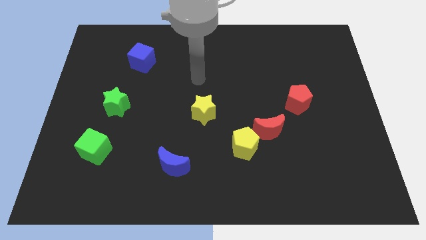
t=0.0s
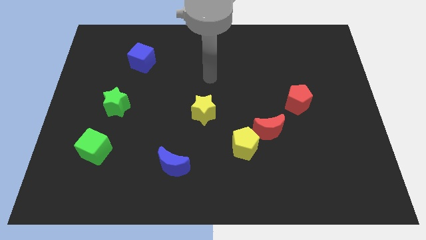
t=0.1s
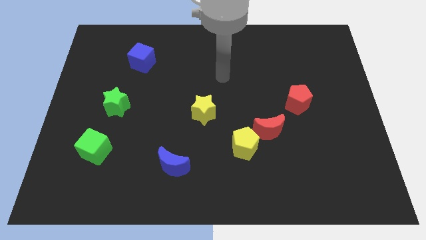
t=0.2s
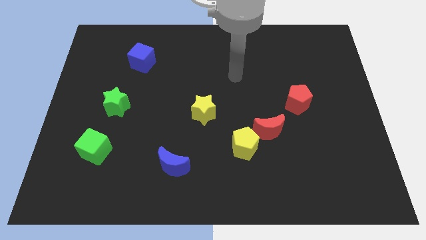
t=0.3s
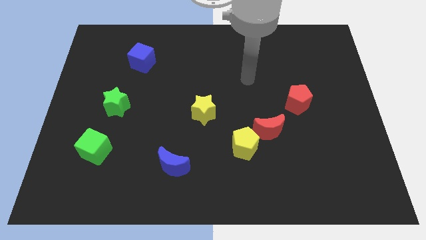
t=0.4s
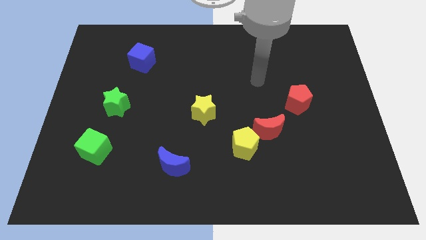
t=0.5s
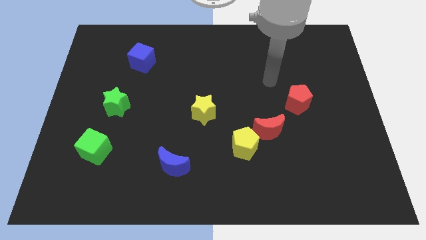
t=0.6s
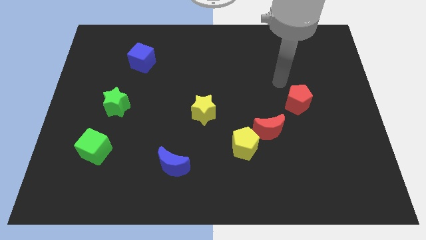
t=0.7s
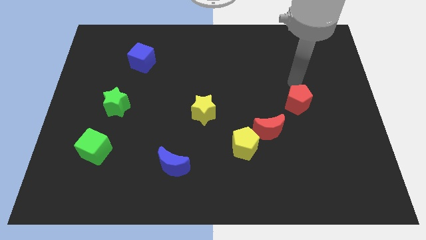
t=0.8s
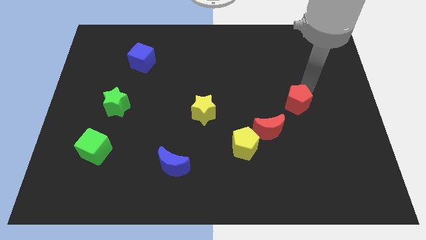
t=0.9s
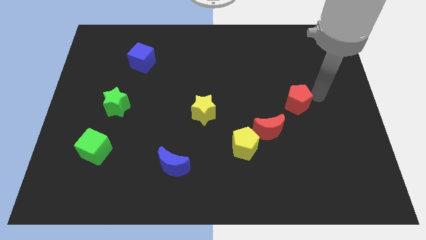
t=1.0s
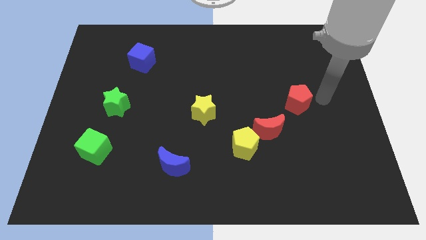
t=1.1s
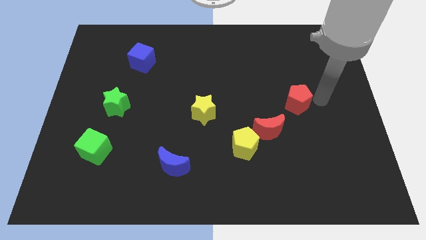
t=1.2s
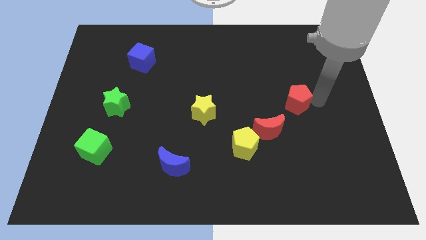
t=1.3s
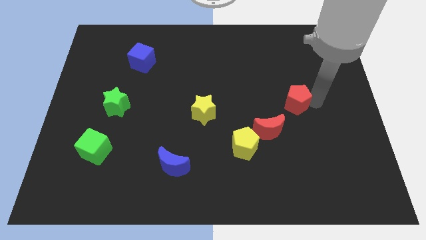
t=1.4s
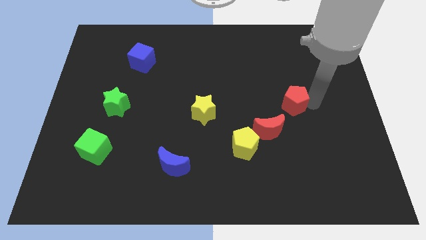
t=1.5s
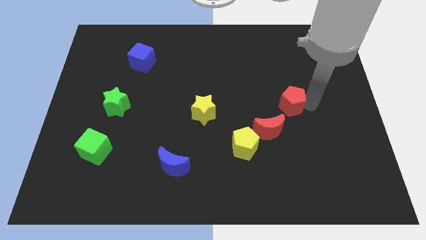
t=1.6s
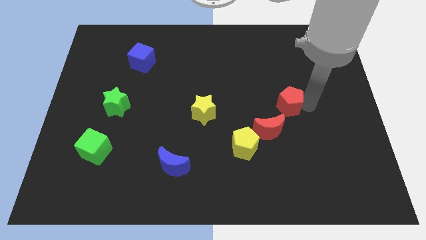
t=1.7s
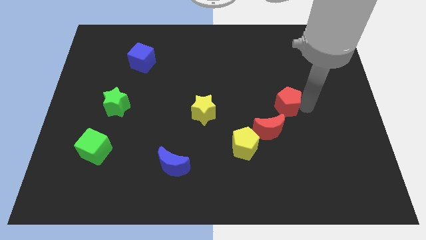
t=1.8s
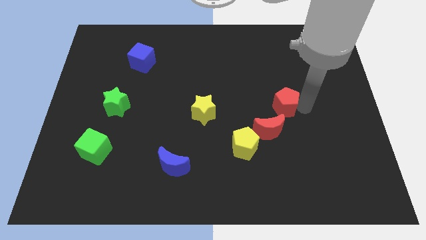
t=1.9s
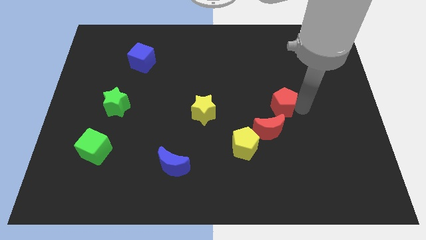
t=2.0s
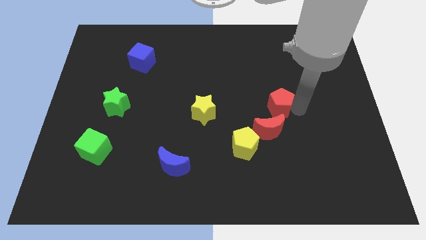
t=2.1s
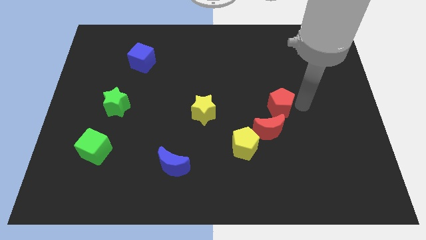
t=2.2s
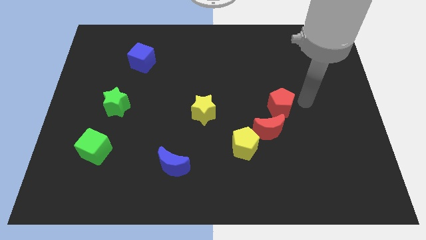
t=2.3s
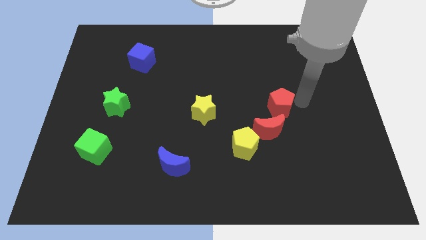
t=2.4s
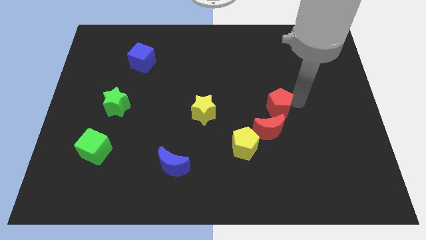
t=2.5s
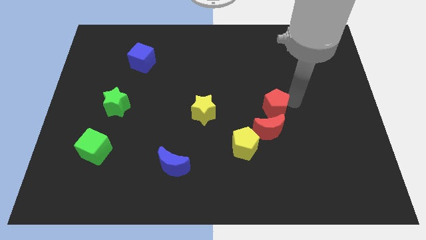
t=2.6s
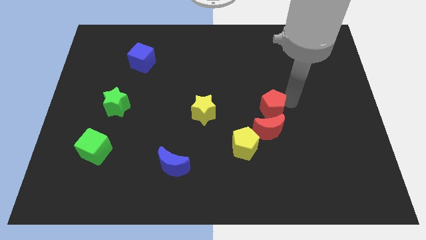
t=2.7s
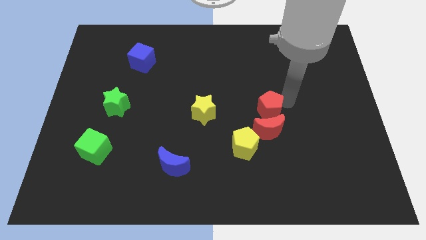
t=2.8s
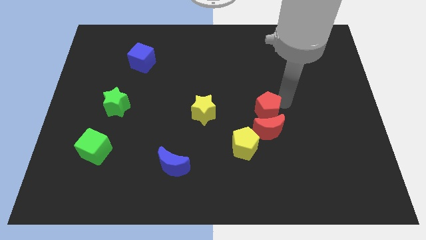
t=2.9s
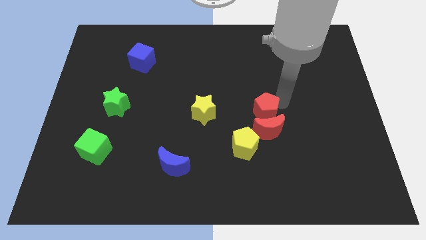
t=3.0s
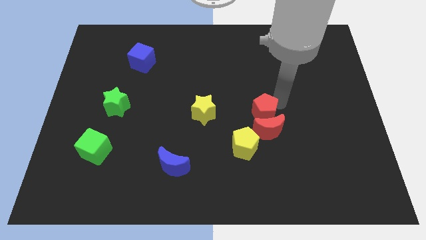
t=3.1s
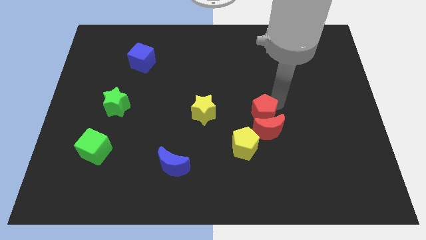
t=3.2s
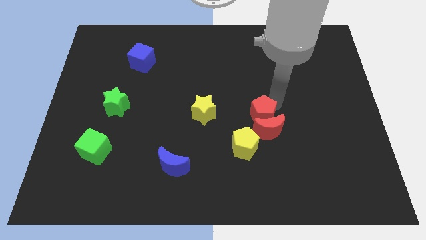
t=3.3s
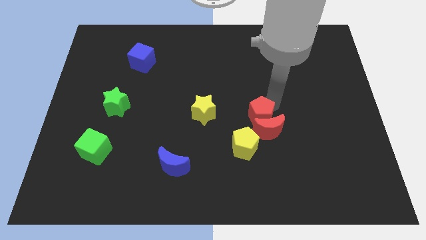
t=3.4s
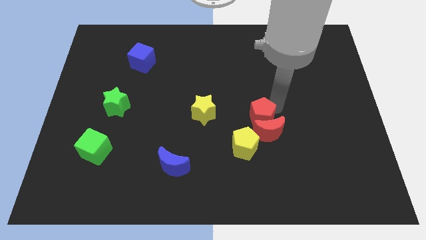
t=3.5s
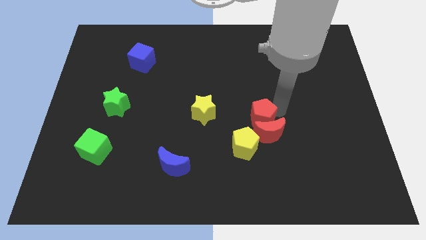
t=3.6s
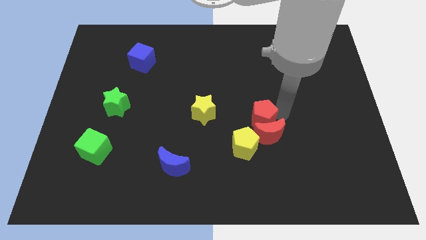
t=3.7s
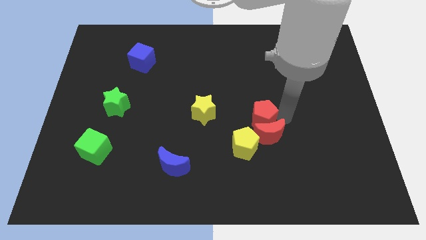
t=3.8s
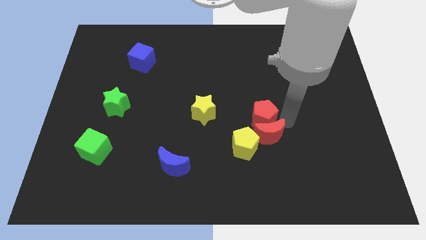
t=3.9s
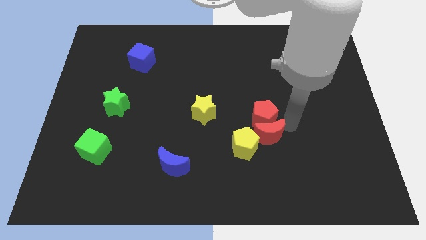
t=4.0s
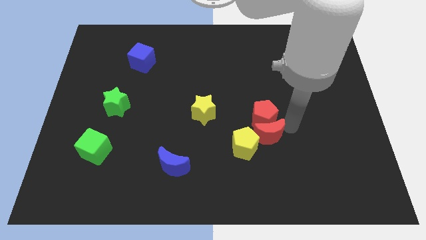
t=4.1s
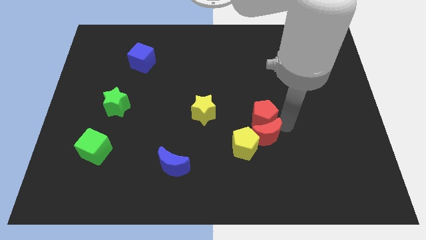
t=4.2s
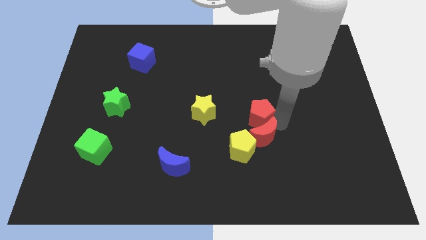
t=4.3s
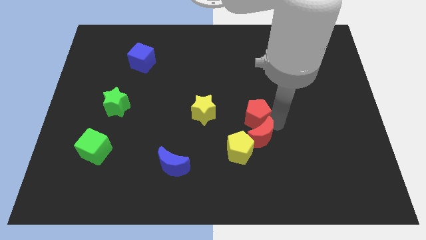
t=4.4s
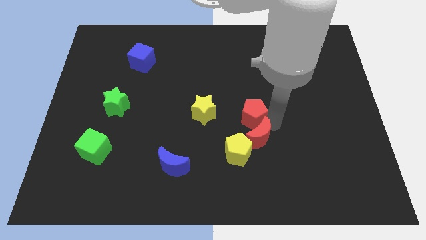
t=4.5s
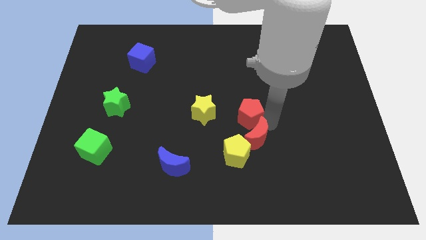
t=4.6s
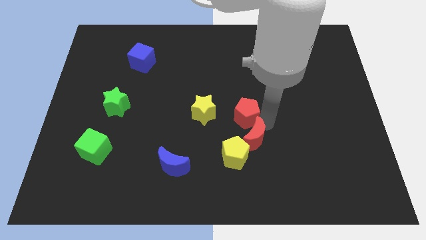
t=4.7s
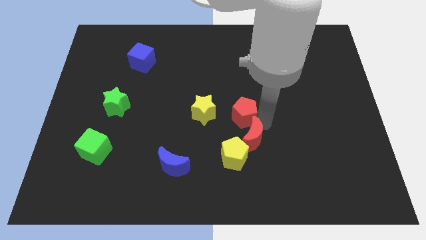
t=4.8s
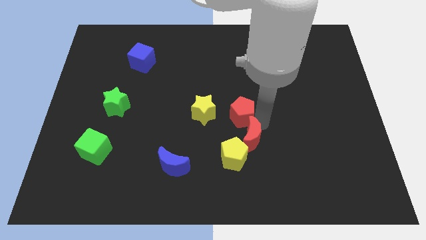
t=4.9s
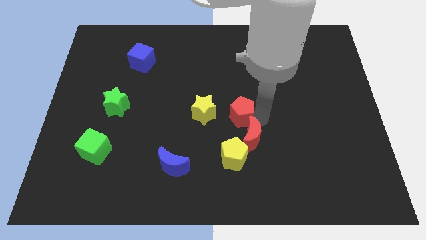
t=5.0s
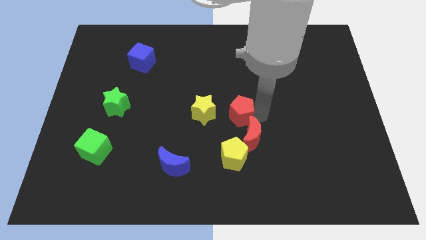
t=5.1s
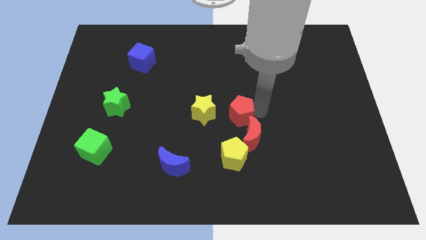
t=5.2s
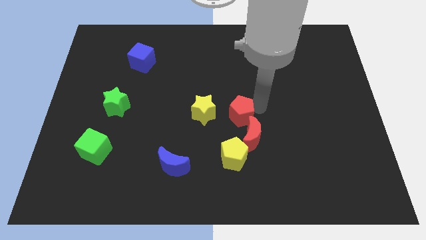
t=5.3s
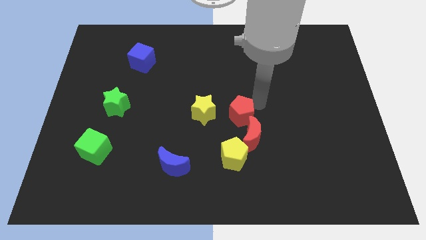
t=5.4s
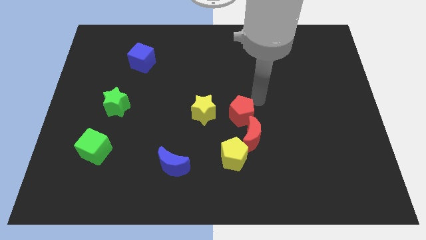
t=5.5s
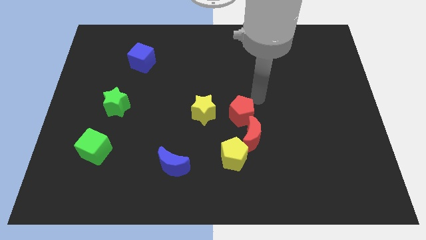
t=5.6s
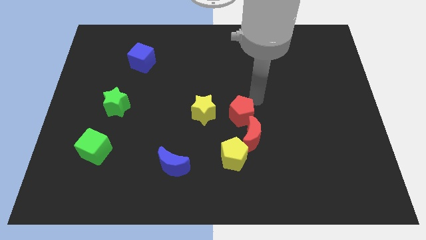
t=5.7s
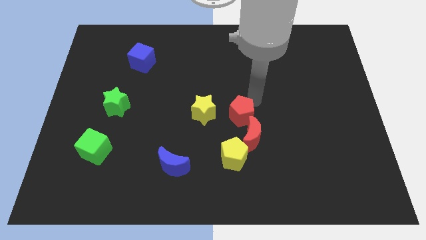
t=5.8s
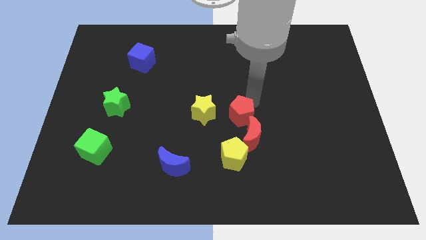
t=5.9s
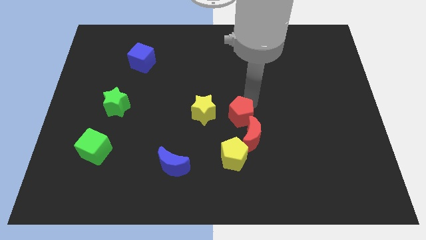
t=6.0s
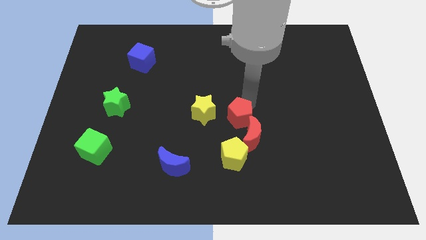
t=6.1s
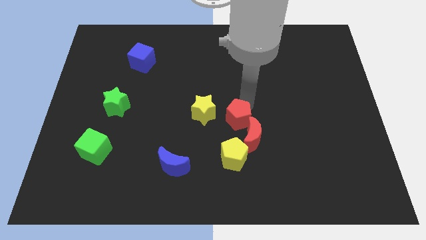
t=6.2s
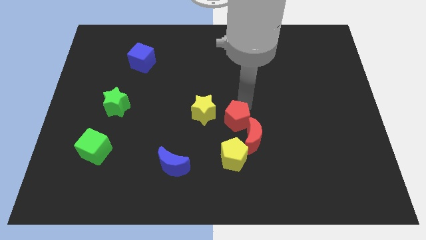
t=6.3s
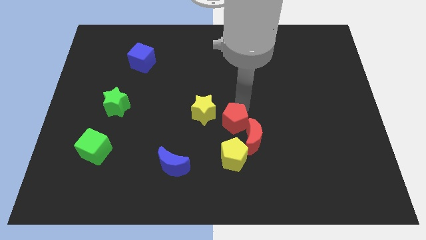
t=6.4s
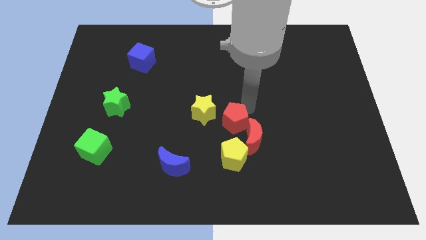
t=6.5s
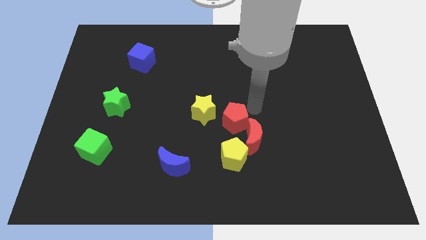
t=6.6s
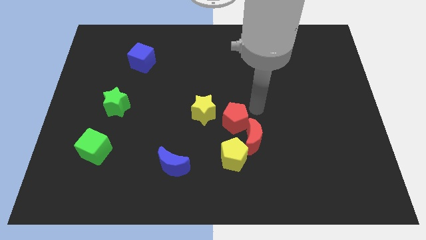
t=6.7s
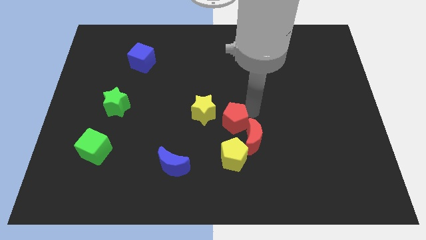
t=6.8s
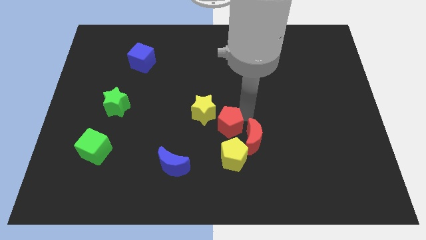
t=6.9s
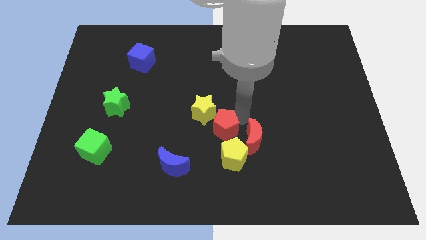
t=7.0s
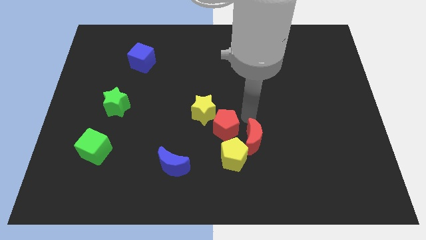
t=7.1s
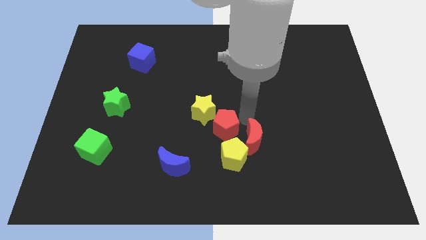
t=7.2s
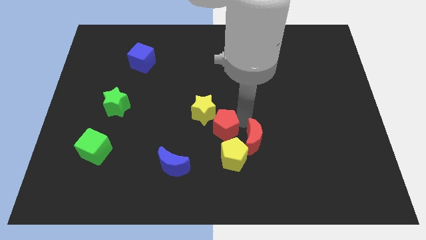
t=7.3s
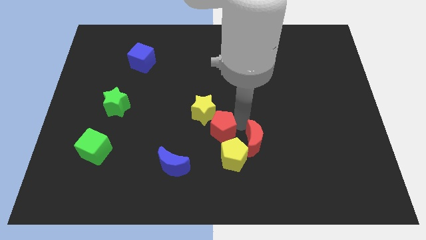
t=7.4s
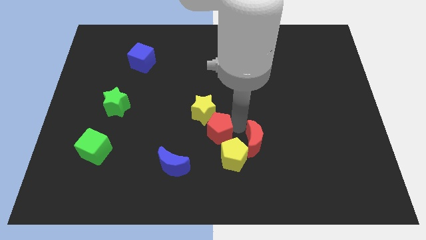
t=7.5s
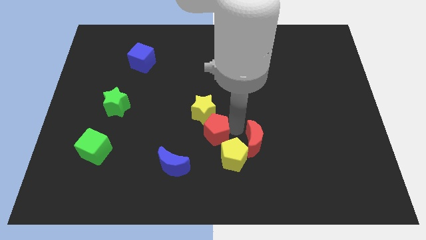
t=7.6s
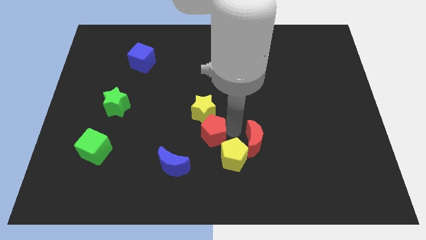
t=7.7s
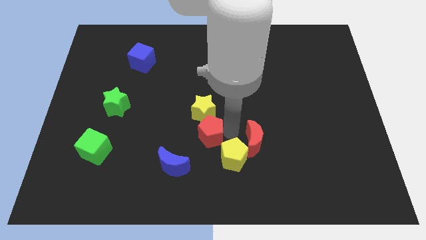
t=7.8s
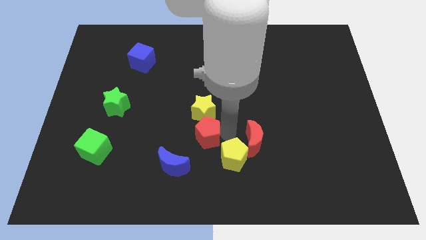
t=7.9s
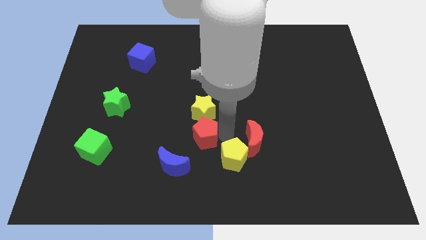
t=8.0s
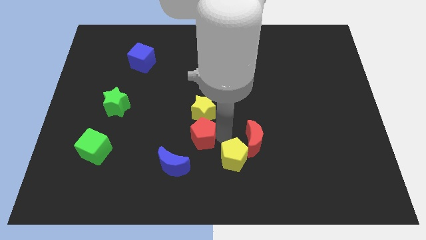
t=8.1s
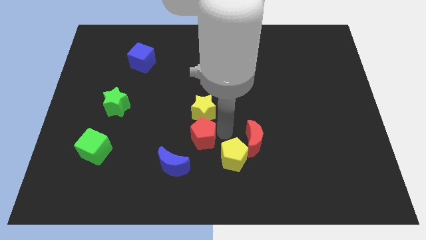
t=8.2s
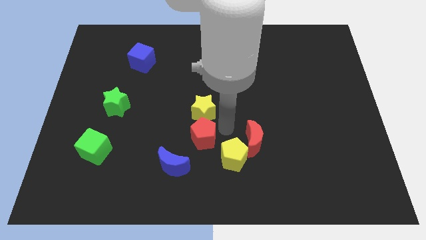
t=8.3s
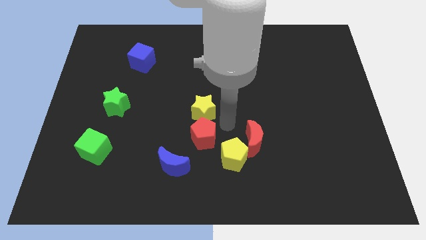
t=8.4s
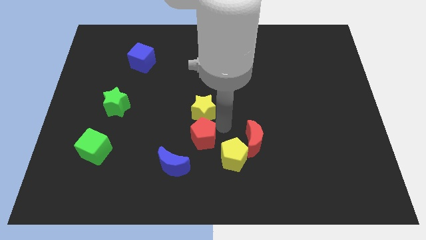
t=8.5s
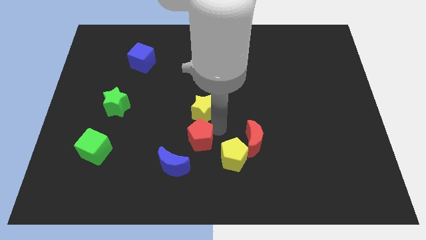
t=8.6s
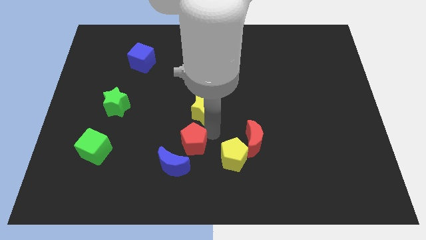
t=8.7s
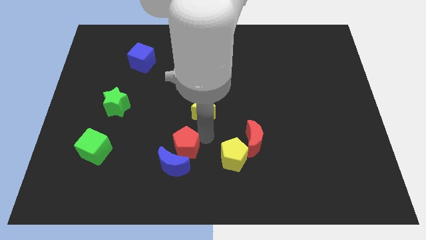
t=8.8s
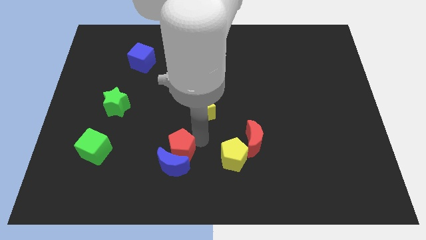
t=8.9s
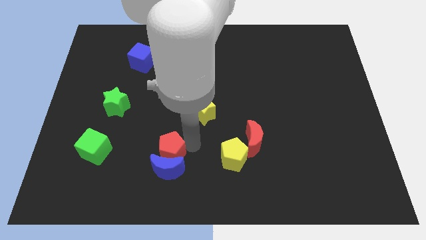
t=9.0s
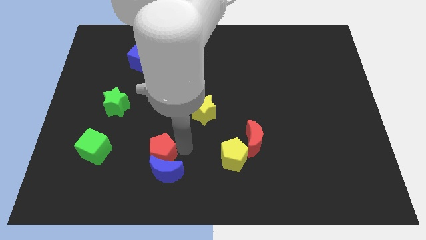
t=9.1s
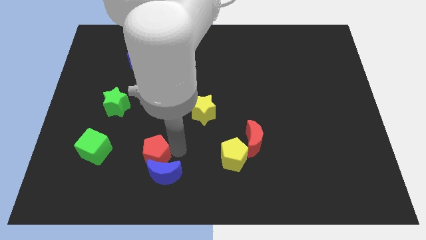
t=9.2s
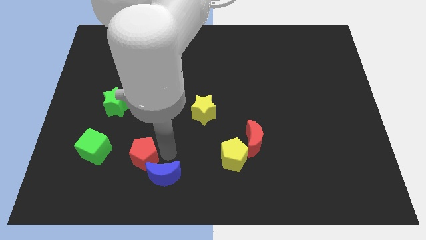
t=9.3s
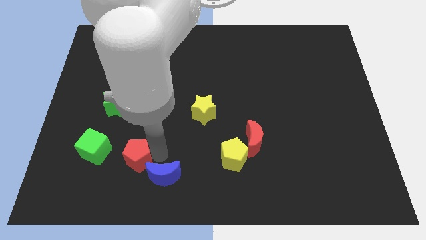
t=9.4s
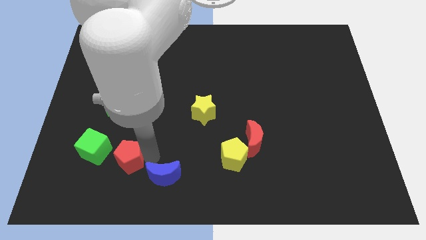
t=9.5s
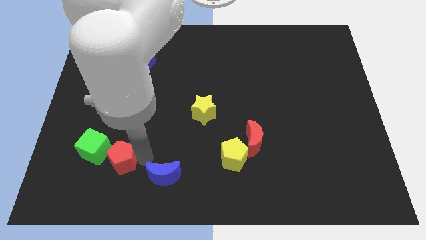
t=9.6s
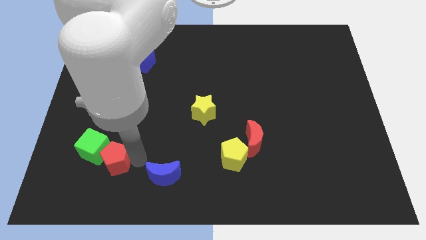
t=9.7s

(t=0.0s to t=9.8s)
slide the red pentagon towards the green cube
